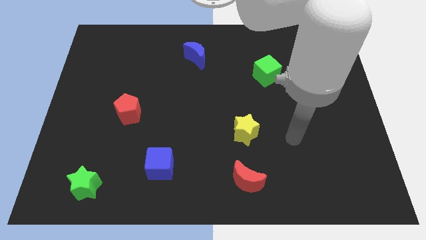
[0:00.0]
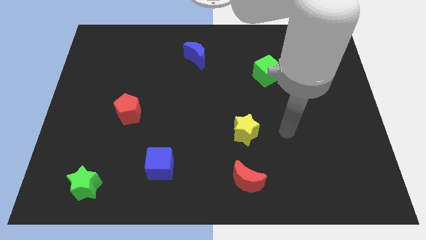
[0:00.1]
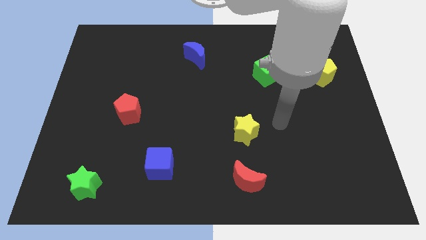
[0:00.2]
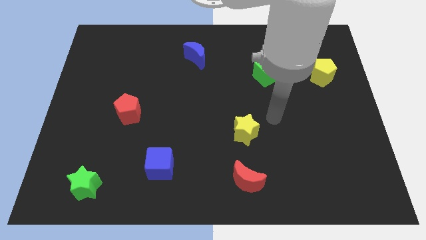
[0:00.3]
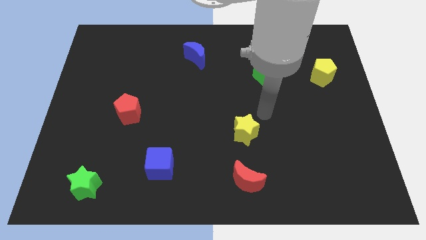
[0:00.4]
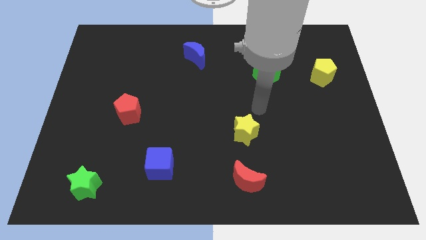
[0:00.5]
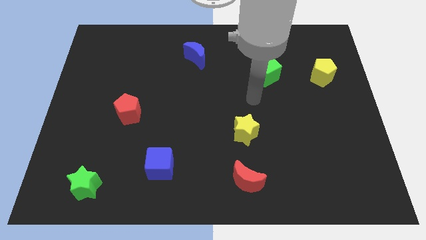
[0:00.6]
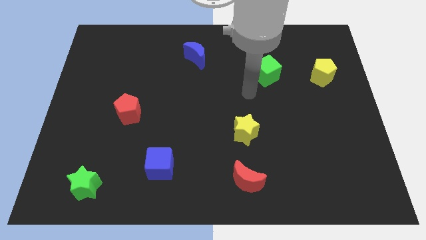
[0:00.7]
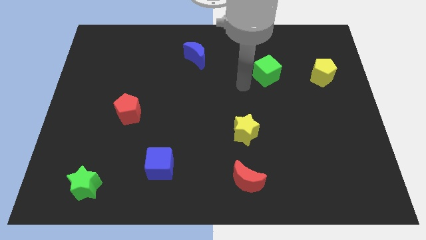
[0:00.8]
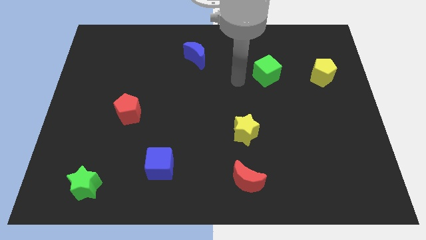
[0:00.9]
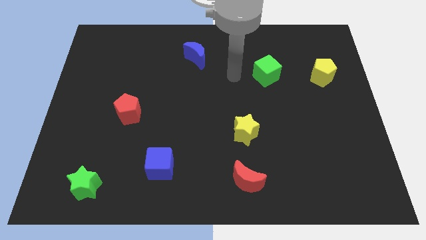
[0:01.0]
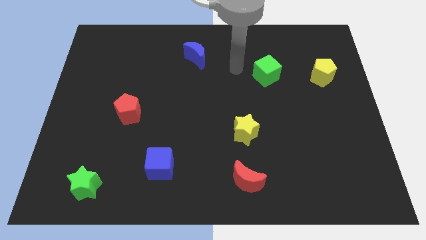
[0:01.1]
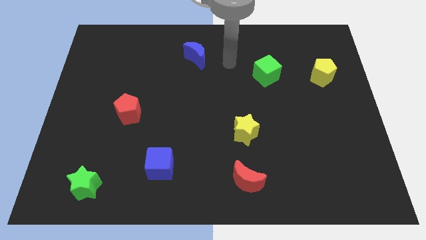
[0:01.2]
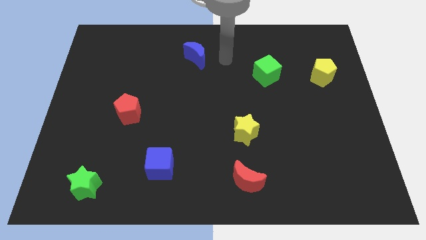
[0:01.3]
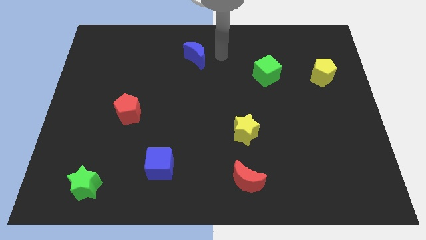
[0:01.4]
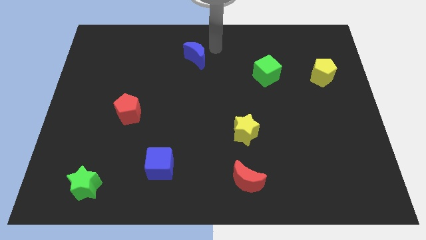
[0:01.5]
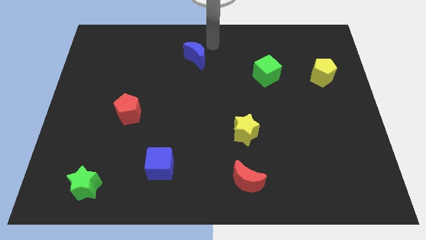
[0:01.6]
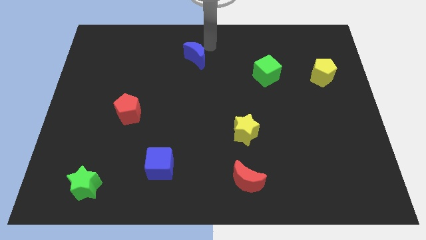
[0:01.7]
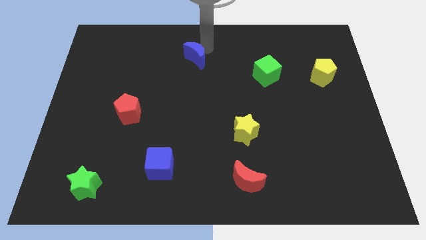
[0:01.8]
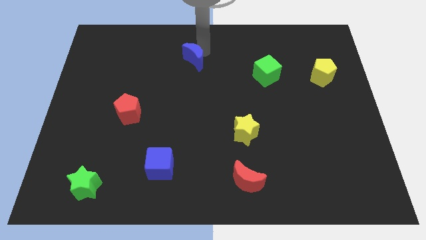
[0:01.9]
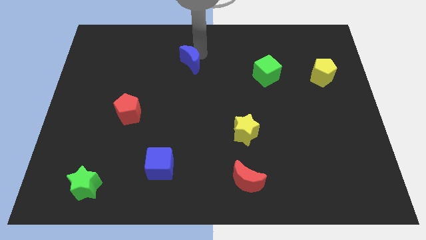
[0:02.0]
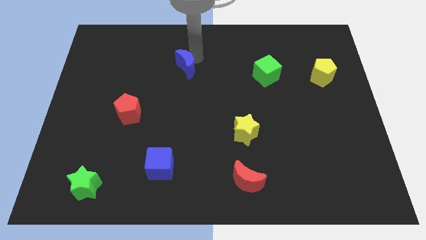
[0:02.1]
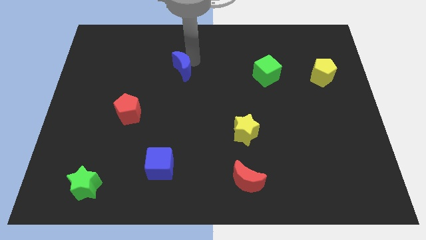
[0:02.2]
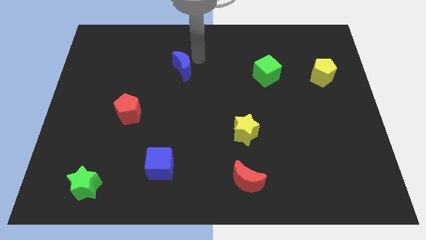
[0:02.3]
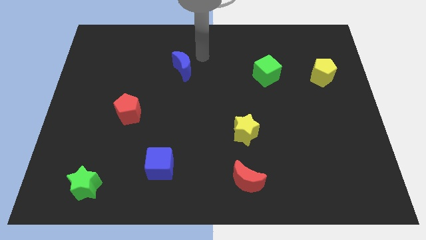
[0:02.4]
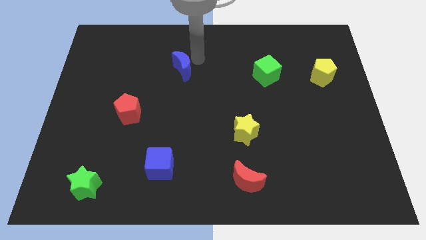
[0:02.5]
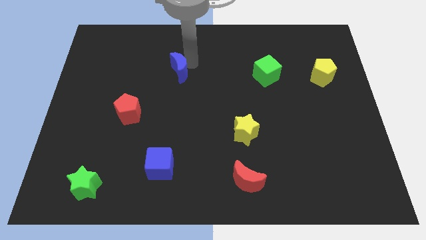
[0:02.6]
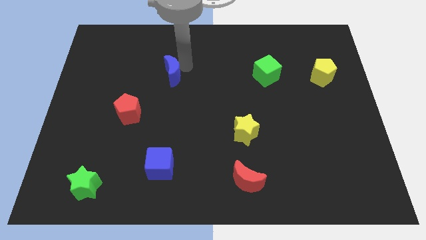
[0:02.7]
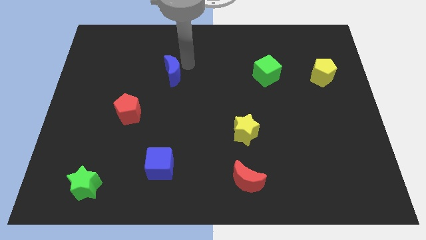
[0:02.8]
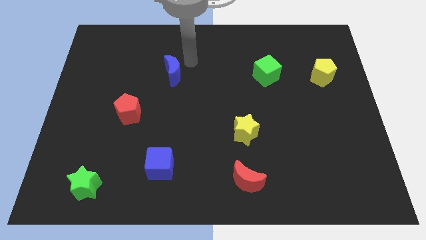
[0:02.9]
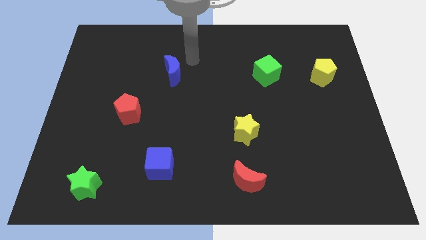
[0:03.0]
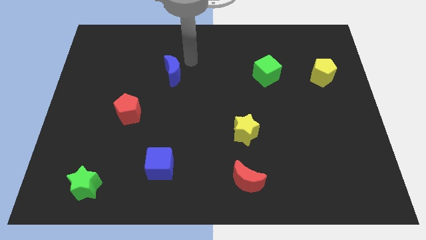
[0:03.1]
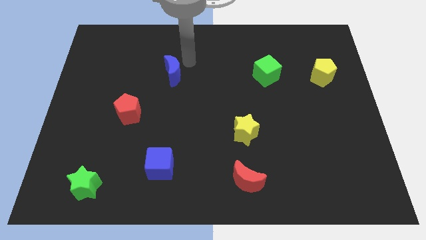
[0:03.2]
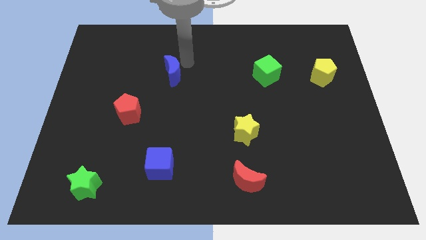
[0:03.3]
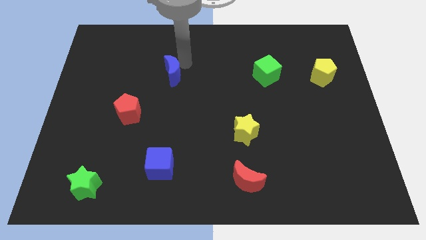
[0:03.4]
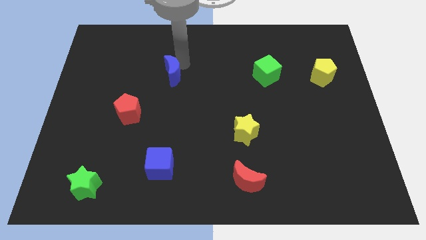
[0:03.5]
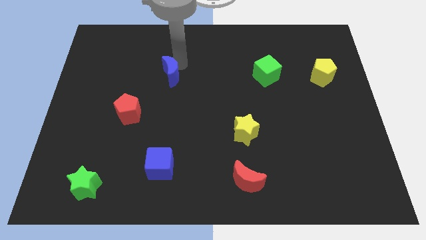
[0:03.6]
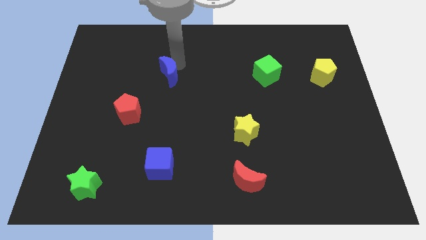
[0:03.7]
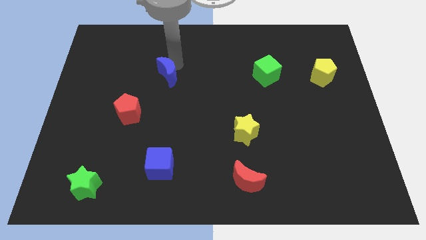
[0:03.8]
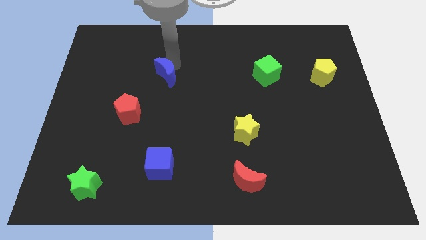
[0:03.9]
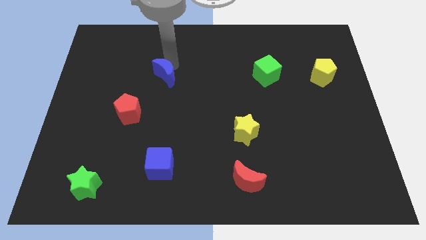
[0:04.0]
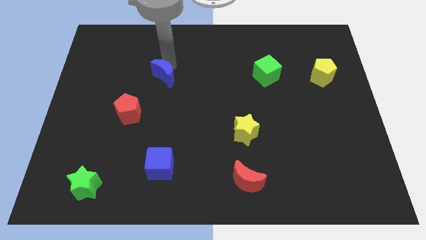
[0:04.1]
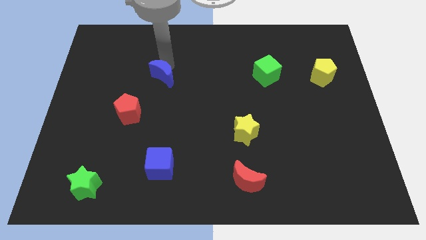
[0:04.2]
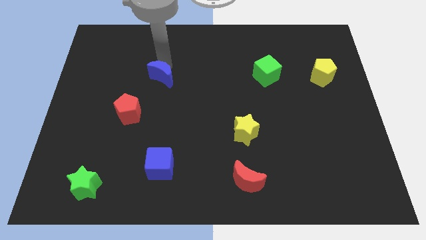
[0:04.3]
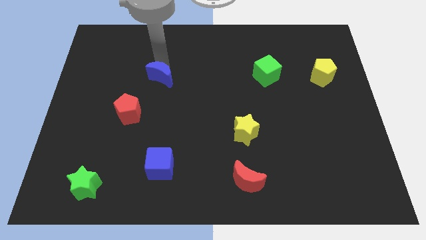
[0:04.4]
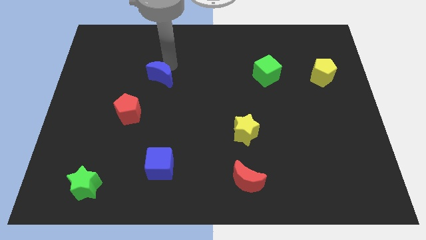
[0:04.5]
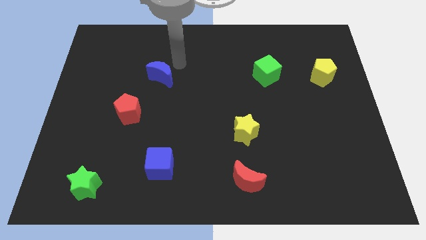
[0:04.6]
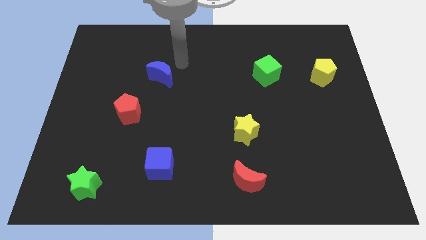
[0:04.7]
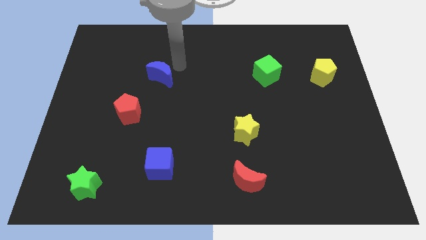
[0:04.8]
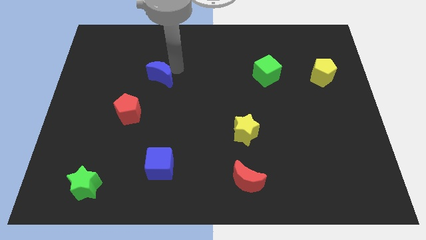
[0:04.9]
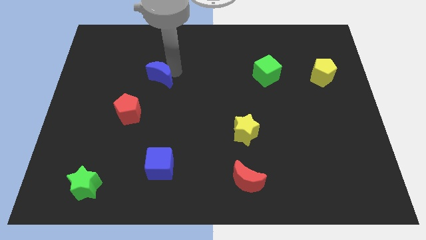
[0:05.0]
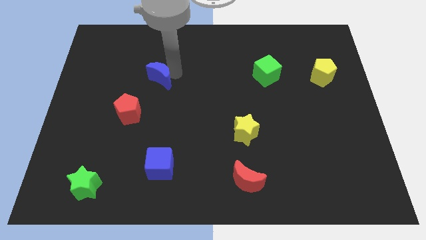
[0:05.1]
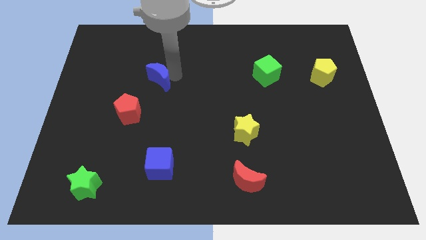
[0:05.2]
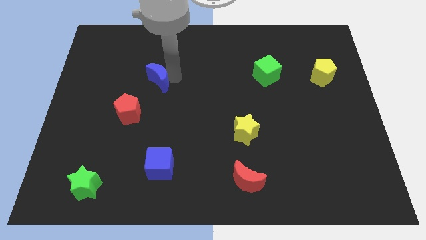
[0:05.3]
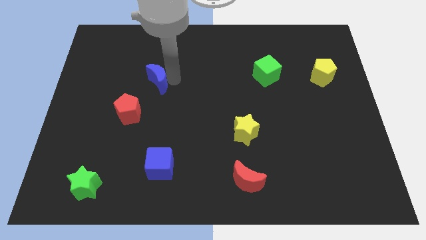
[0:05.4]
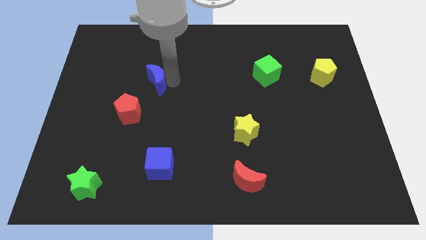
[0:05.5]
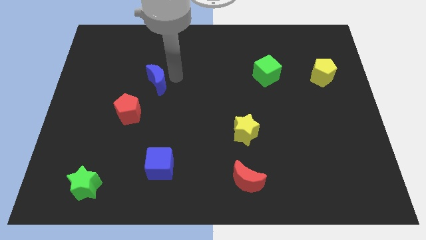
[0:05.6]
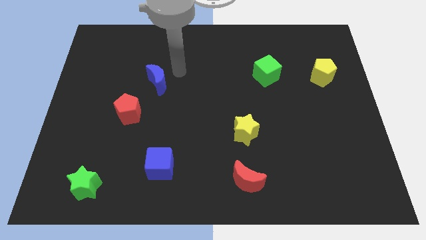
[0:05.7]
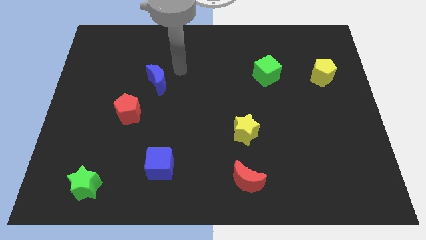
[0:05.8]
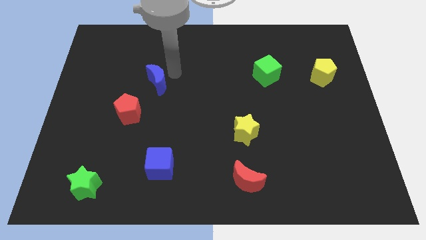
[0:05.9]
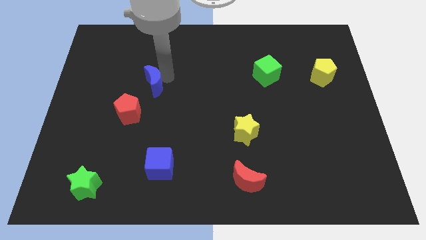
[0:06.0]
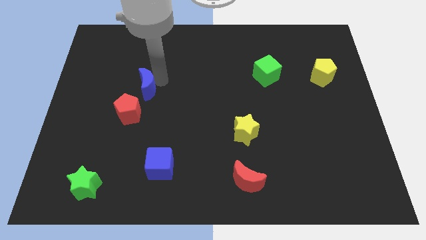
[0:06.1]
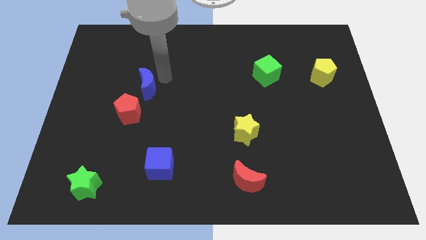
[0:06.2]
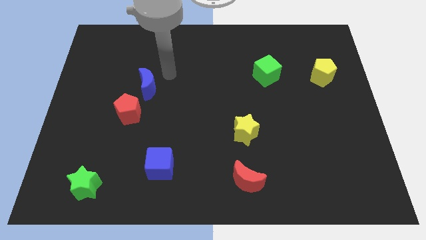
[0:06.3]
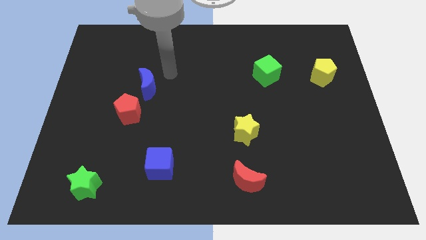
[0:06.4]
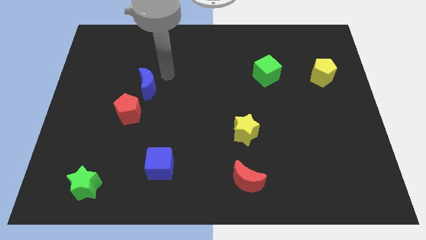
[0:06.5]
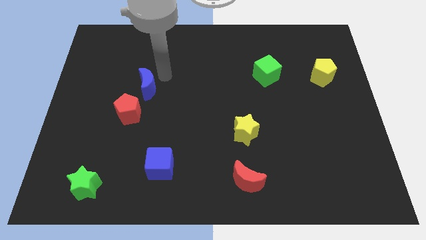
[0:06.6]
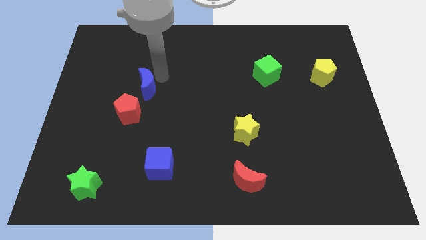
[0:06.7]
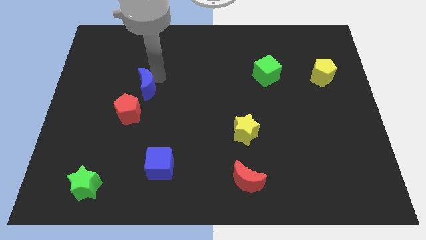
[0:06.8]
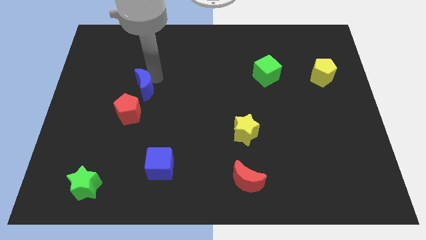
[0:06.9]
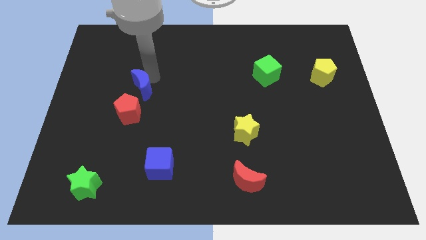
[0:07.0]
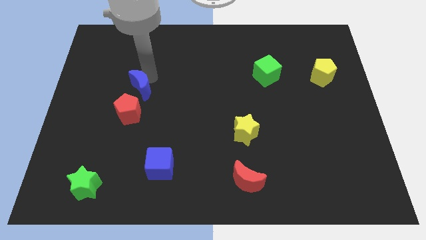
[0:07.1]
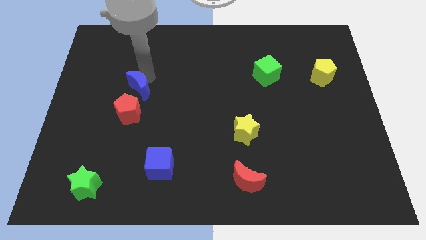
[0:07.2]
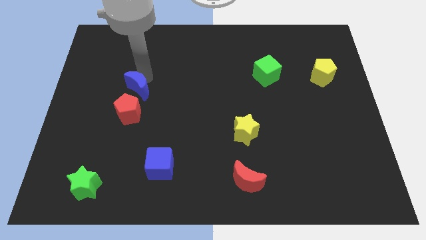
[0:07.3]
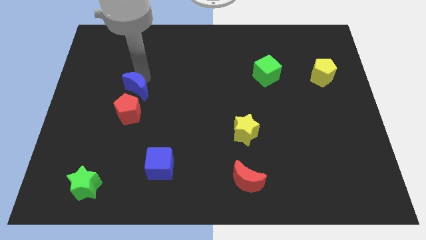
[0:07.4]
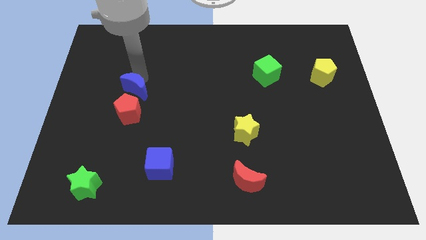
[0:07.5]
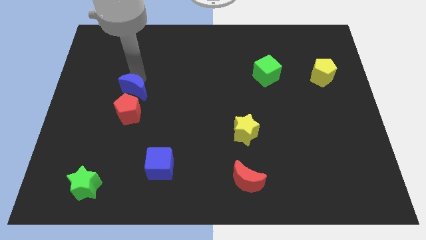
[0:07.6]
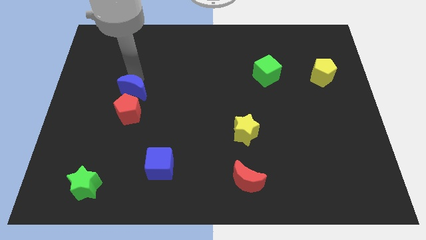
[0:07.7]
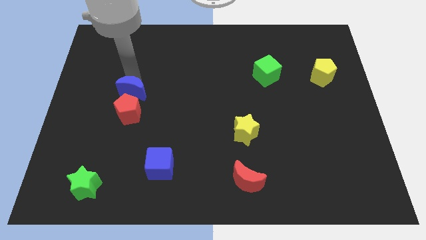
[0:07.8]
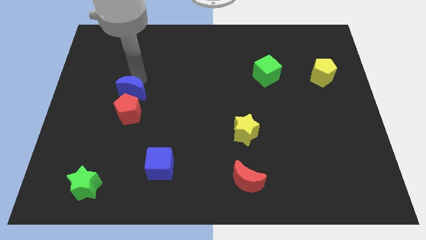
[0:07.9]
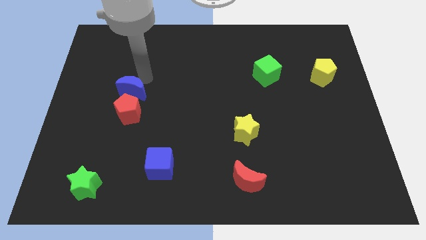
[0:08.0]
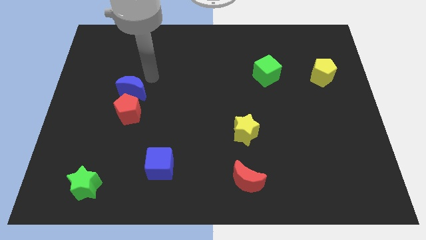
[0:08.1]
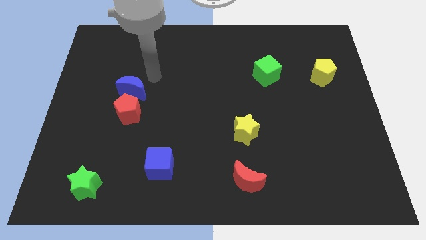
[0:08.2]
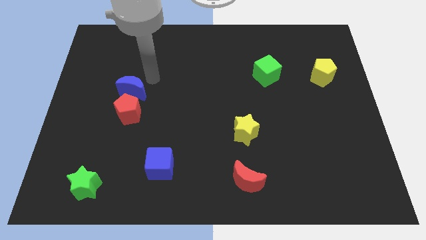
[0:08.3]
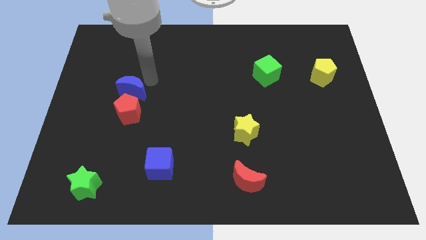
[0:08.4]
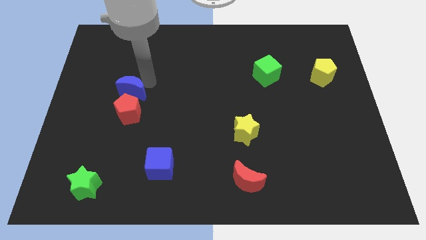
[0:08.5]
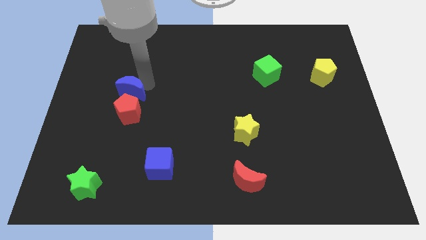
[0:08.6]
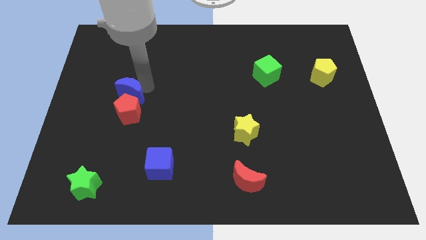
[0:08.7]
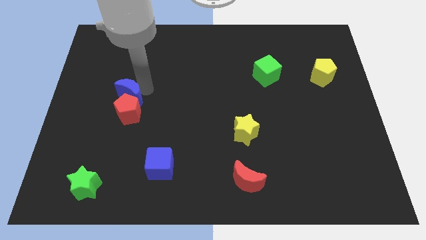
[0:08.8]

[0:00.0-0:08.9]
move the blue moon downwards and left diagonally
